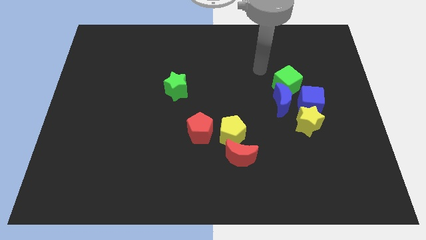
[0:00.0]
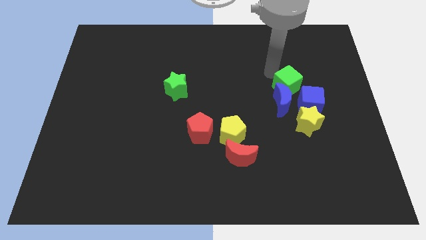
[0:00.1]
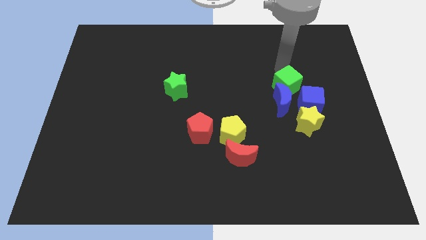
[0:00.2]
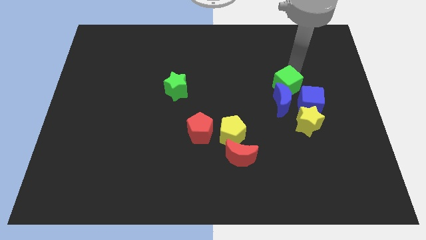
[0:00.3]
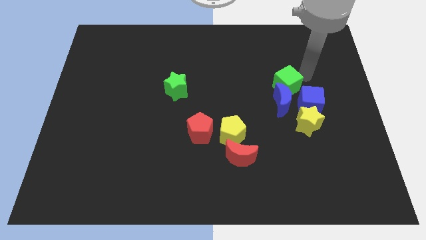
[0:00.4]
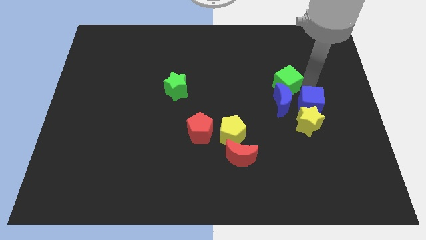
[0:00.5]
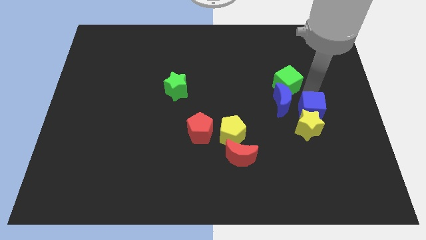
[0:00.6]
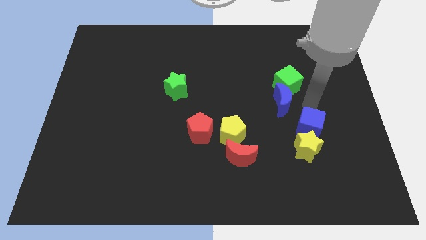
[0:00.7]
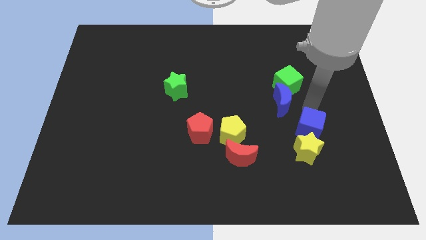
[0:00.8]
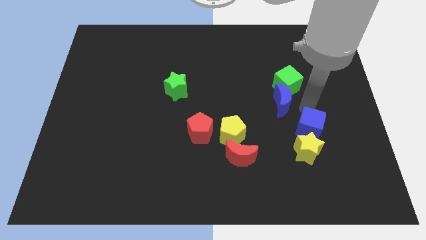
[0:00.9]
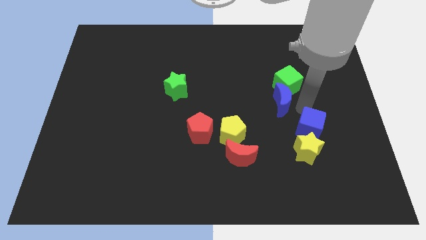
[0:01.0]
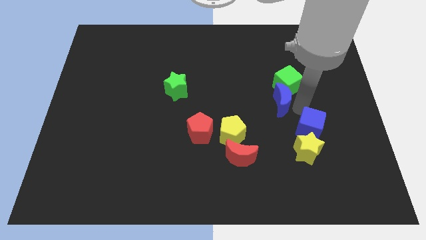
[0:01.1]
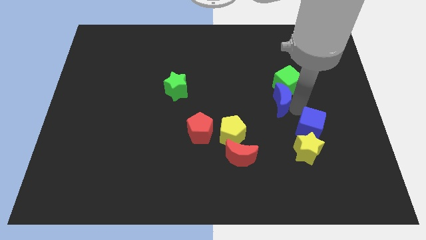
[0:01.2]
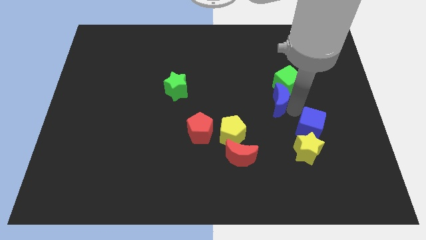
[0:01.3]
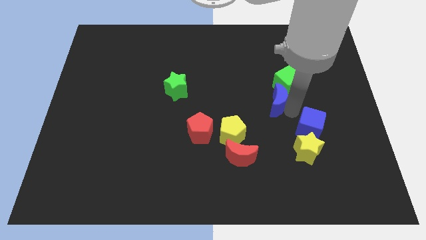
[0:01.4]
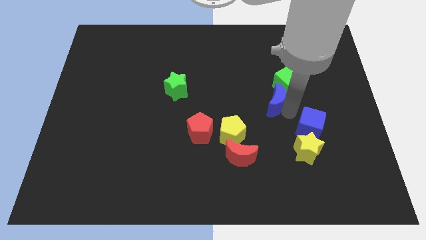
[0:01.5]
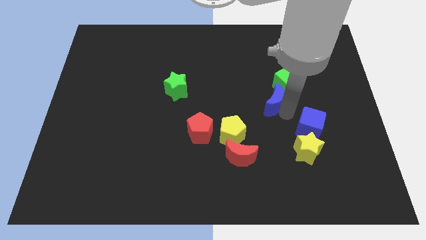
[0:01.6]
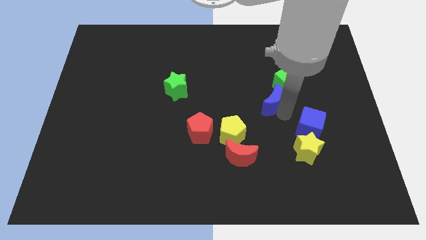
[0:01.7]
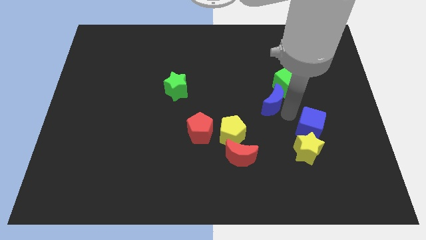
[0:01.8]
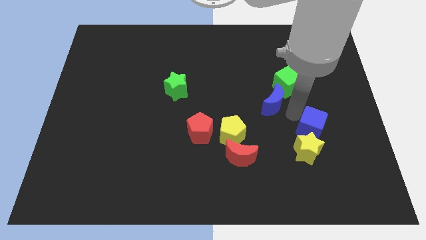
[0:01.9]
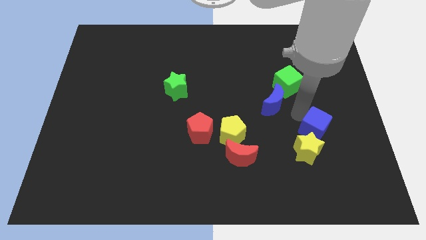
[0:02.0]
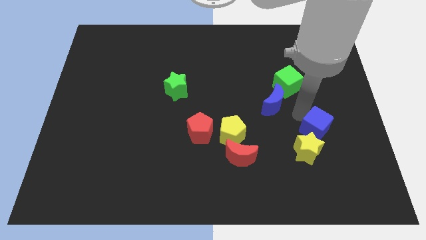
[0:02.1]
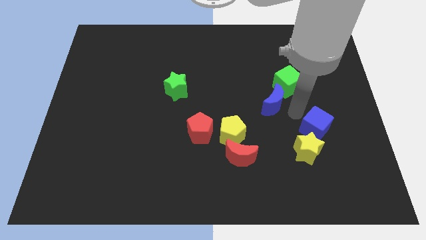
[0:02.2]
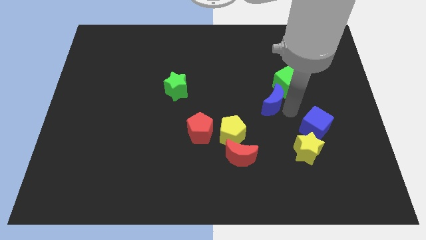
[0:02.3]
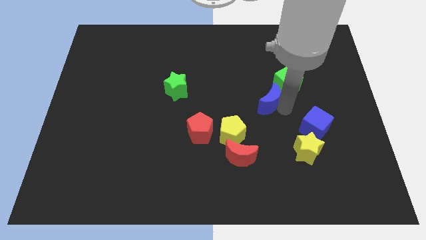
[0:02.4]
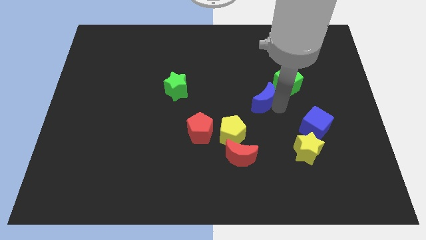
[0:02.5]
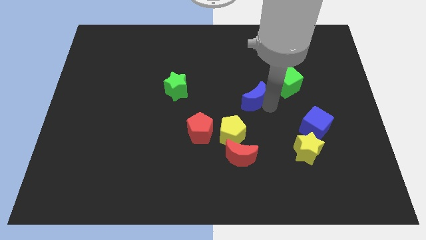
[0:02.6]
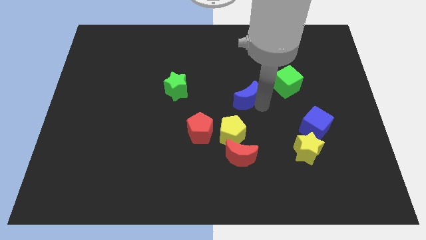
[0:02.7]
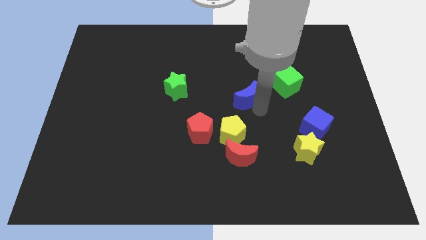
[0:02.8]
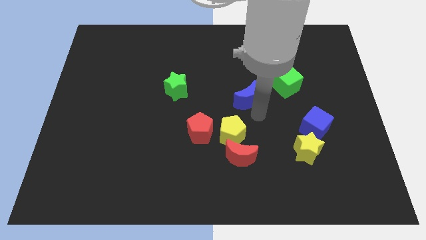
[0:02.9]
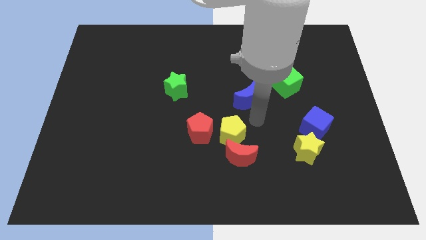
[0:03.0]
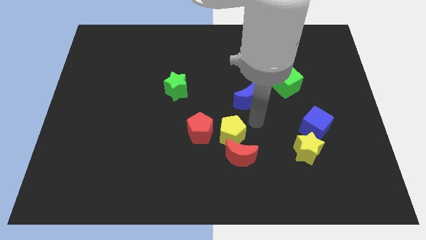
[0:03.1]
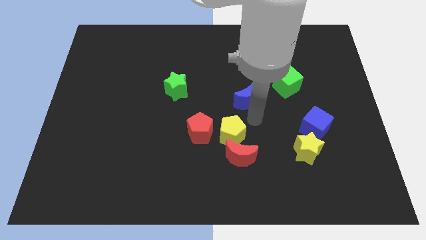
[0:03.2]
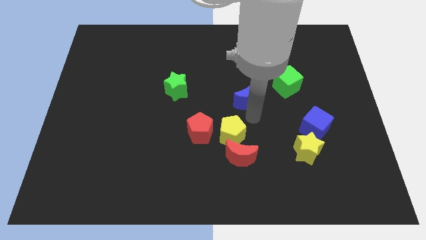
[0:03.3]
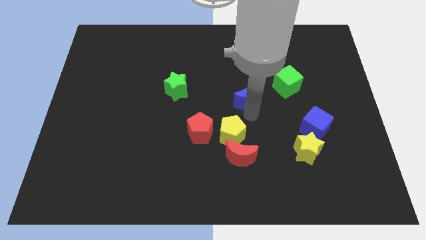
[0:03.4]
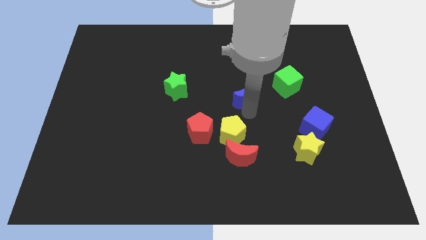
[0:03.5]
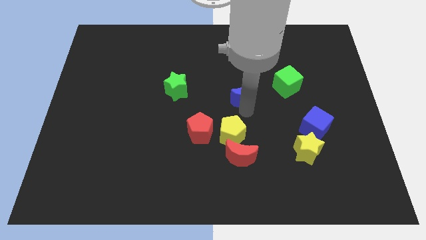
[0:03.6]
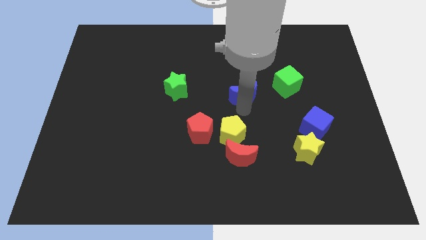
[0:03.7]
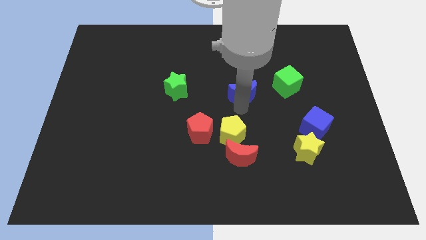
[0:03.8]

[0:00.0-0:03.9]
slightly slide the blue moon upwards and then to the left

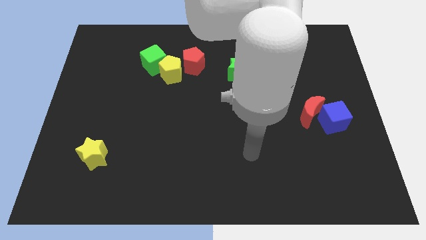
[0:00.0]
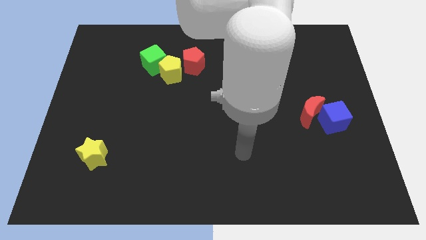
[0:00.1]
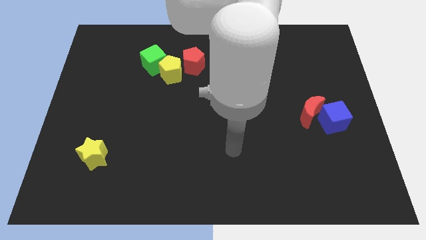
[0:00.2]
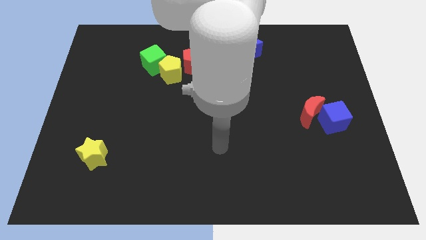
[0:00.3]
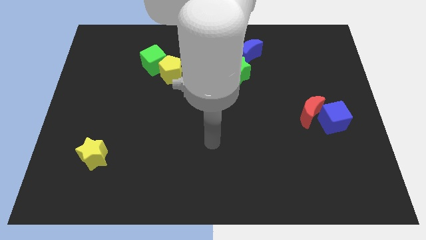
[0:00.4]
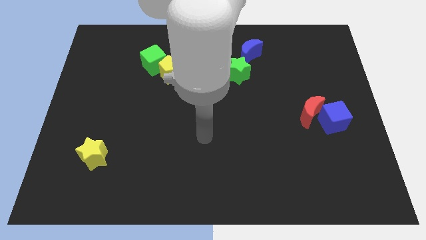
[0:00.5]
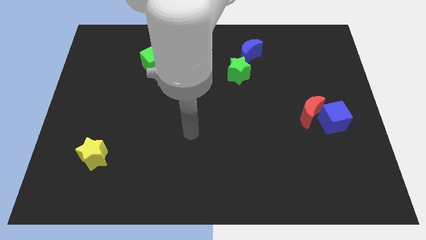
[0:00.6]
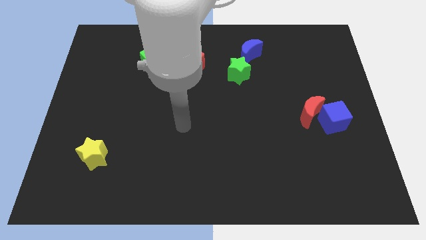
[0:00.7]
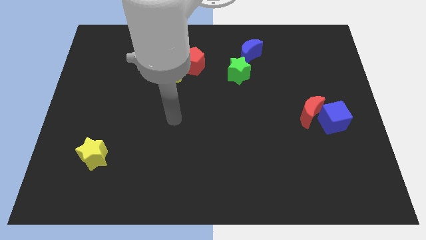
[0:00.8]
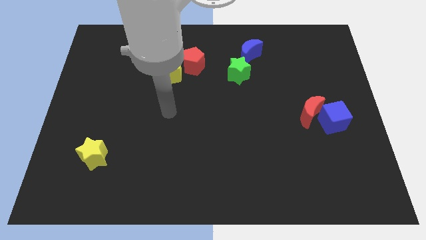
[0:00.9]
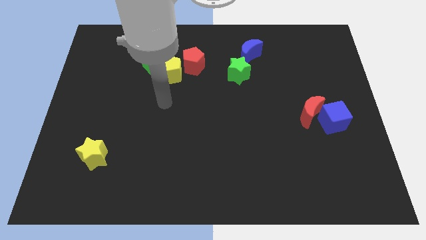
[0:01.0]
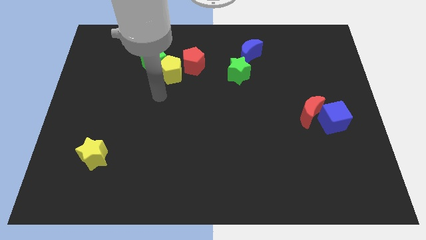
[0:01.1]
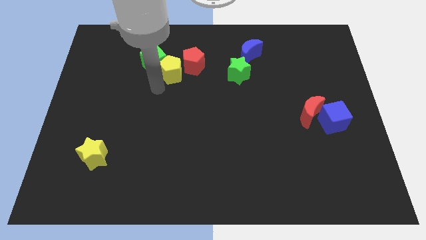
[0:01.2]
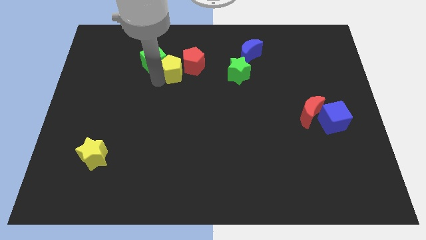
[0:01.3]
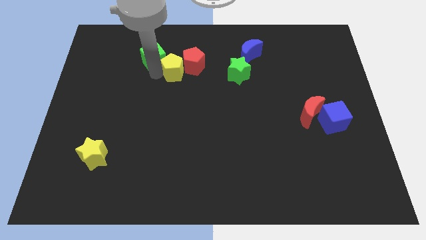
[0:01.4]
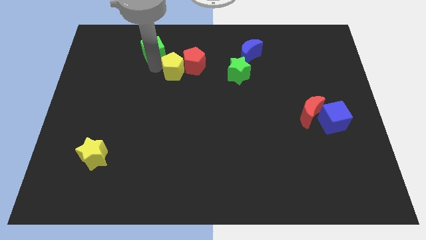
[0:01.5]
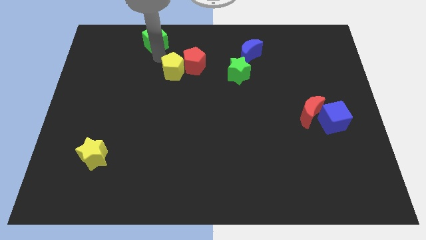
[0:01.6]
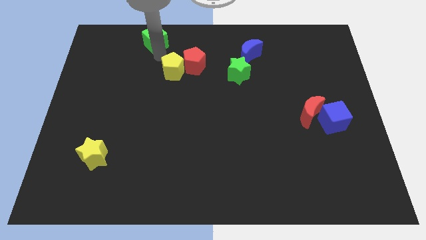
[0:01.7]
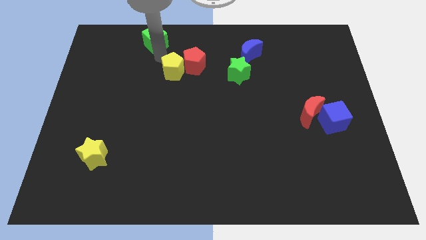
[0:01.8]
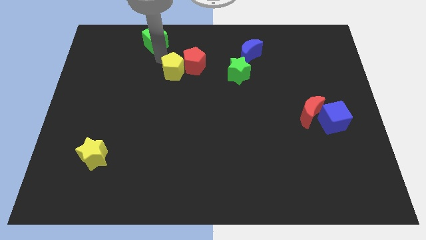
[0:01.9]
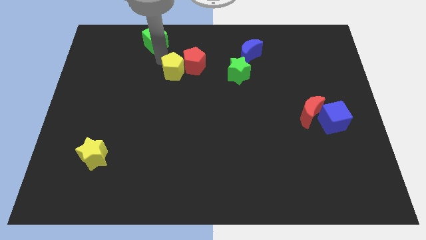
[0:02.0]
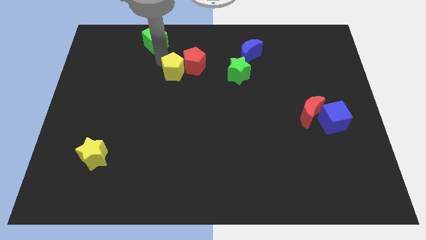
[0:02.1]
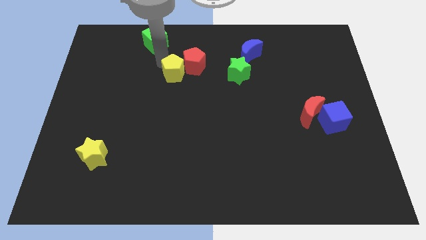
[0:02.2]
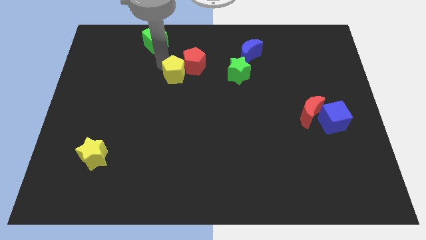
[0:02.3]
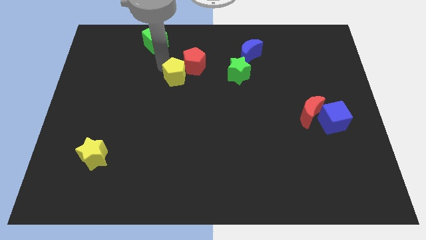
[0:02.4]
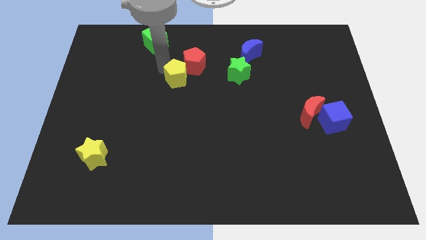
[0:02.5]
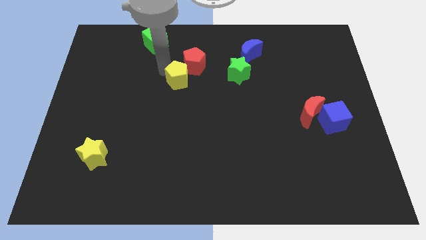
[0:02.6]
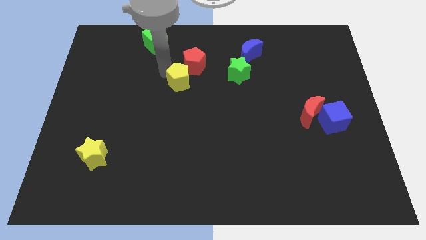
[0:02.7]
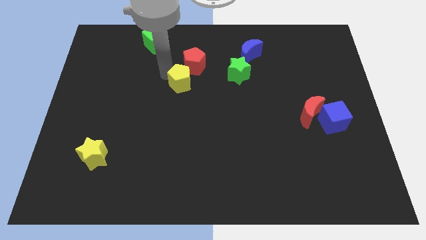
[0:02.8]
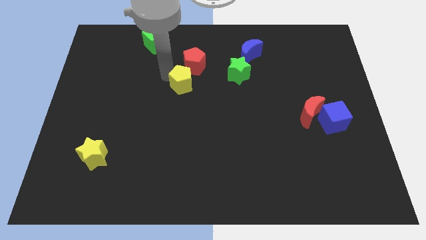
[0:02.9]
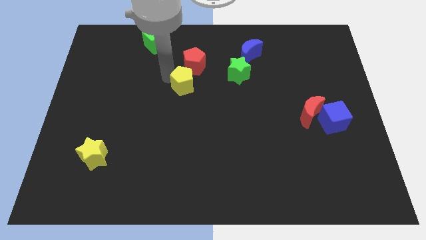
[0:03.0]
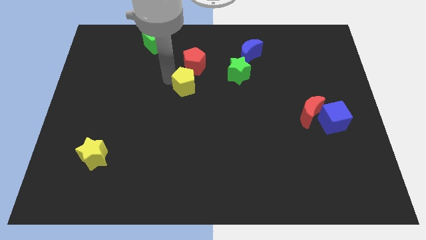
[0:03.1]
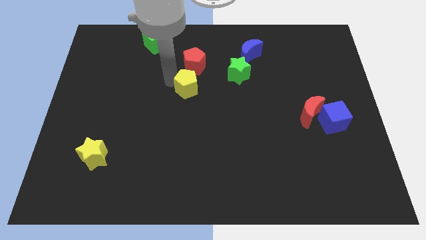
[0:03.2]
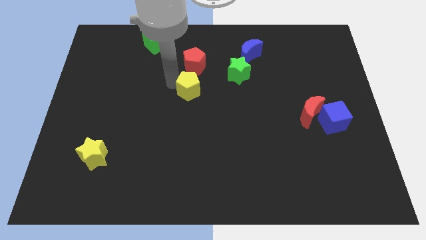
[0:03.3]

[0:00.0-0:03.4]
move the yellow pentagon downwards and to the right diagonally a little bit

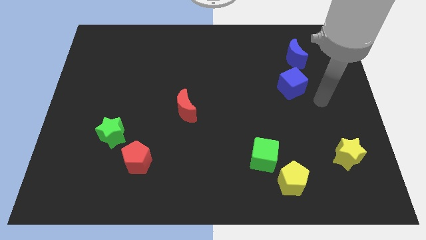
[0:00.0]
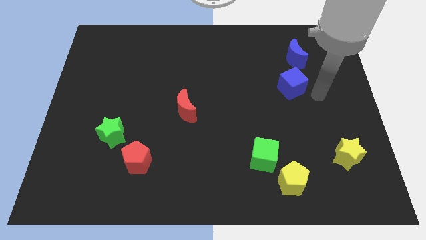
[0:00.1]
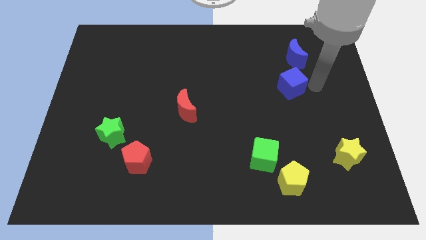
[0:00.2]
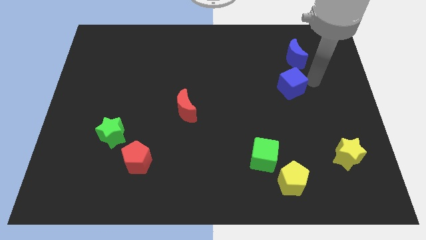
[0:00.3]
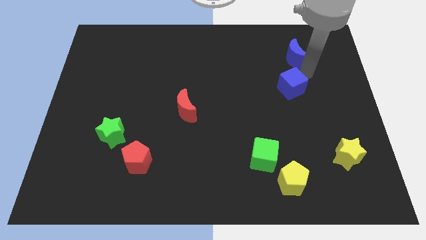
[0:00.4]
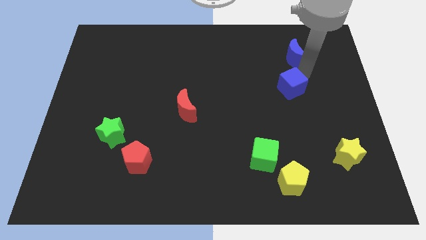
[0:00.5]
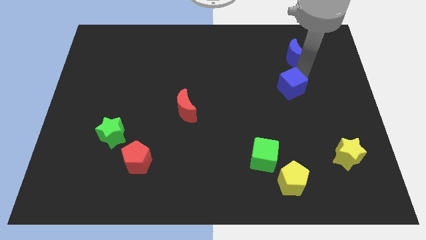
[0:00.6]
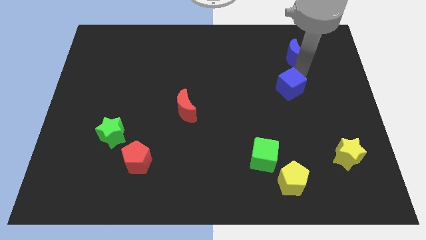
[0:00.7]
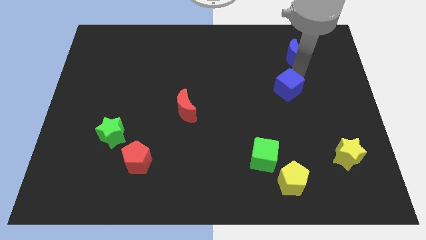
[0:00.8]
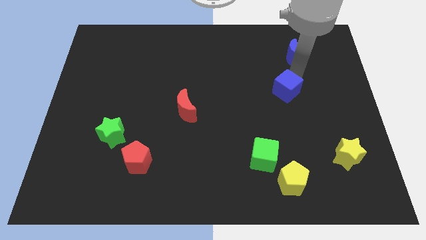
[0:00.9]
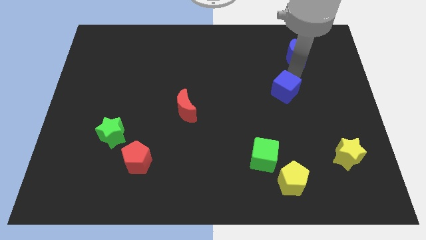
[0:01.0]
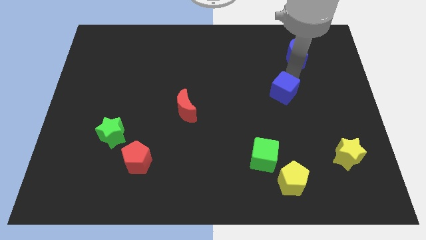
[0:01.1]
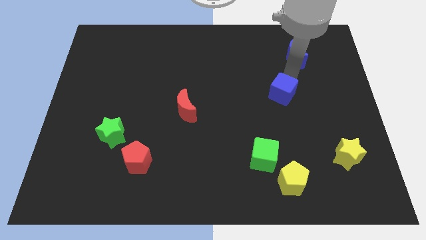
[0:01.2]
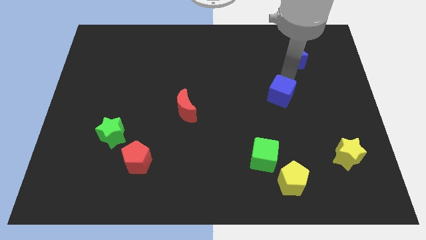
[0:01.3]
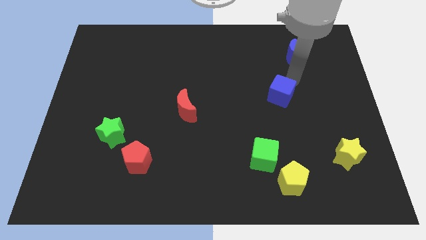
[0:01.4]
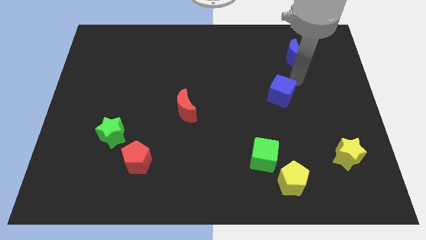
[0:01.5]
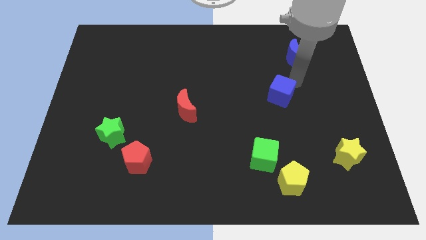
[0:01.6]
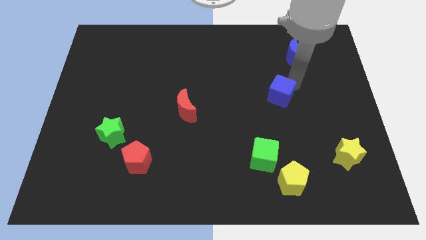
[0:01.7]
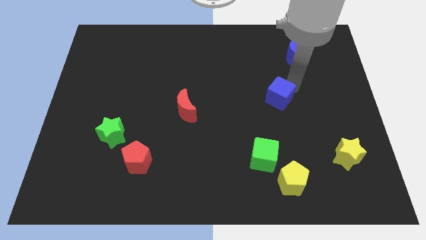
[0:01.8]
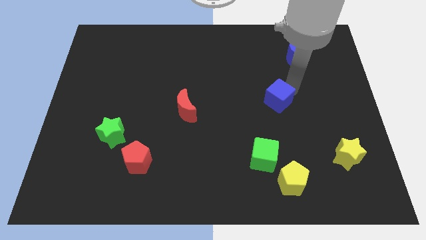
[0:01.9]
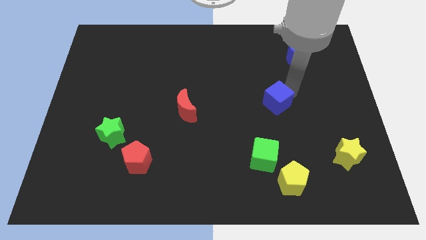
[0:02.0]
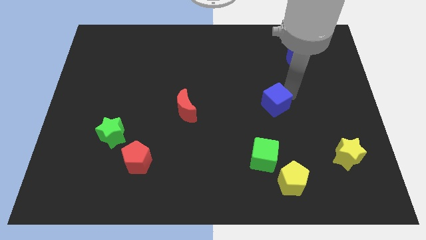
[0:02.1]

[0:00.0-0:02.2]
slightly push the blue cube downwards and then to the left
